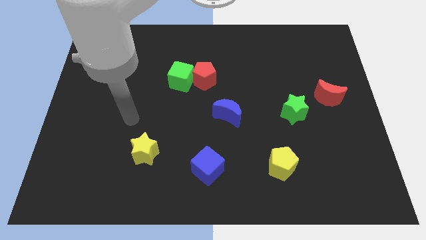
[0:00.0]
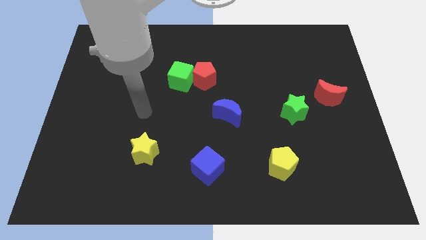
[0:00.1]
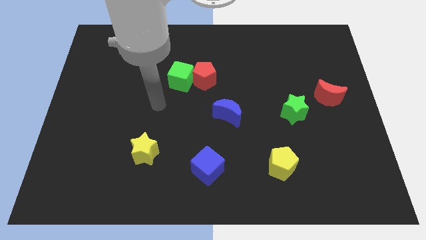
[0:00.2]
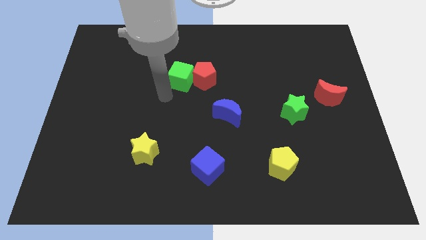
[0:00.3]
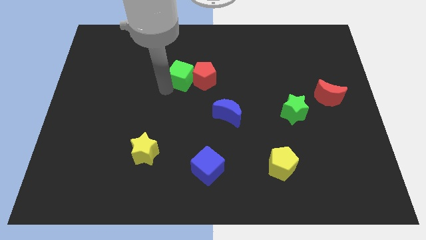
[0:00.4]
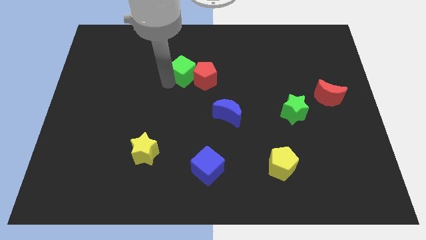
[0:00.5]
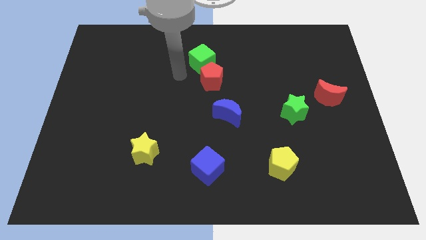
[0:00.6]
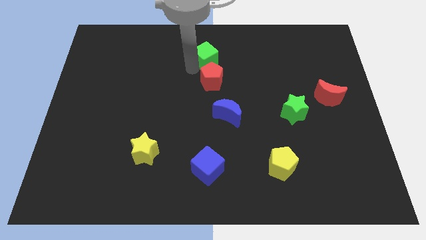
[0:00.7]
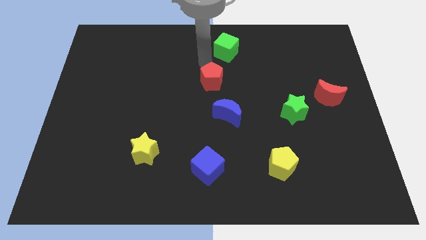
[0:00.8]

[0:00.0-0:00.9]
separate the red pentagon from the green cube

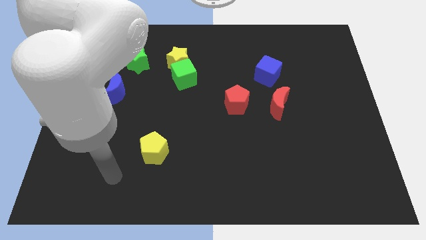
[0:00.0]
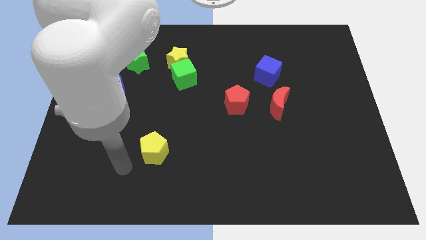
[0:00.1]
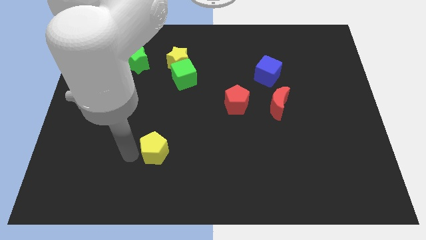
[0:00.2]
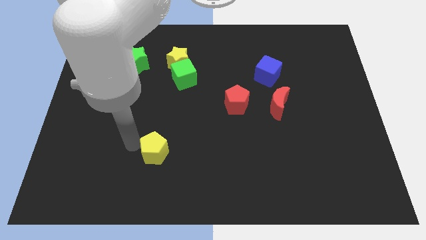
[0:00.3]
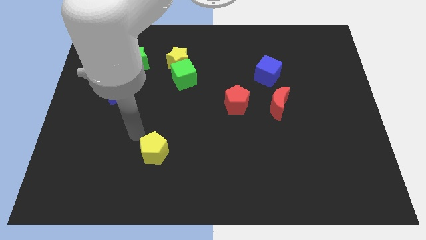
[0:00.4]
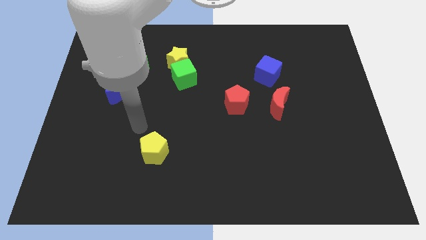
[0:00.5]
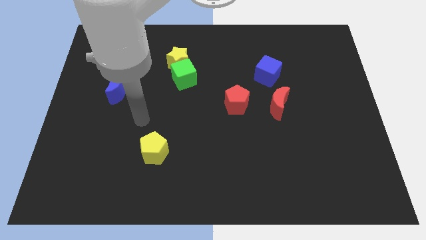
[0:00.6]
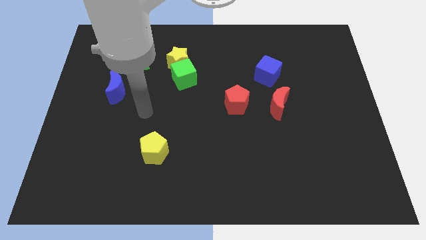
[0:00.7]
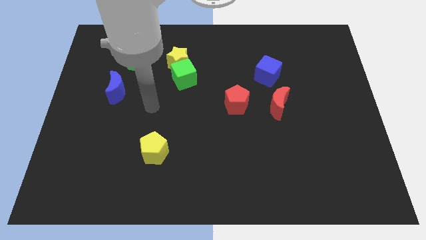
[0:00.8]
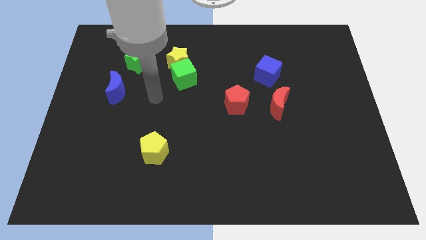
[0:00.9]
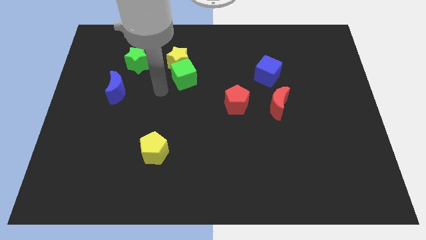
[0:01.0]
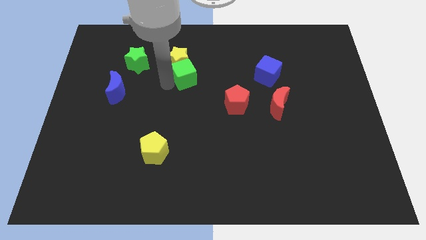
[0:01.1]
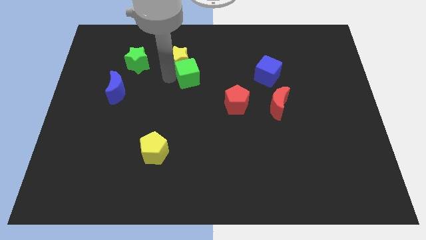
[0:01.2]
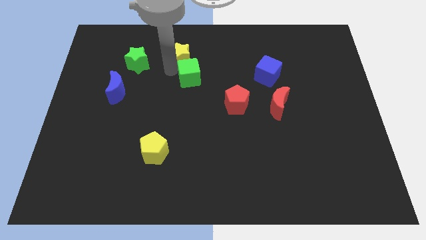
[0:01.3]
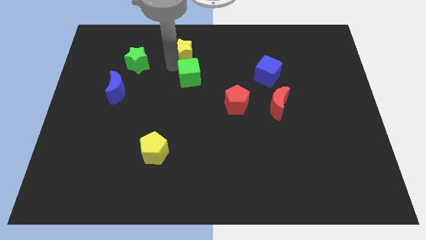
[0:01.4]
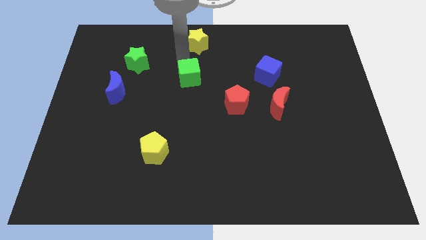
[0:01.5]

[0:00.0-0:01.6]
pull the green cube apart from the yellow star

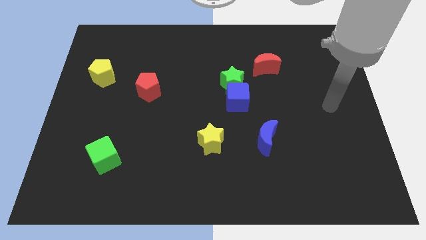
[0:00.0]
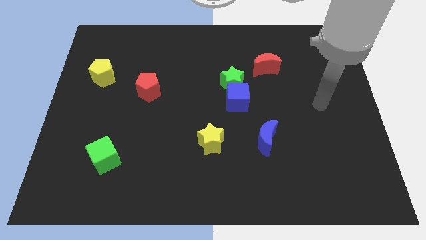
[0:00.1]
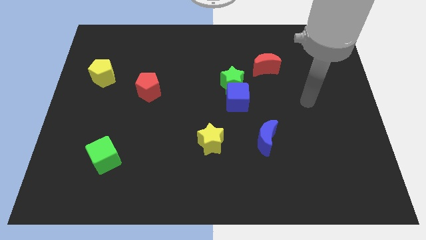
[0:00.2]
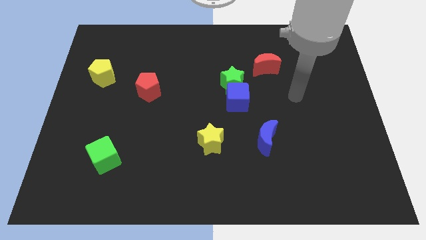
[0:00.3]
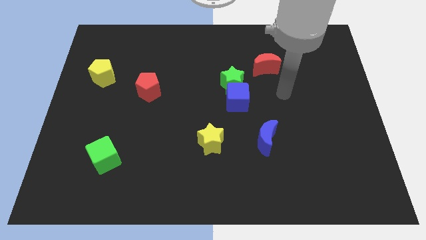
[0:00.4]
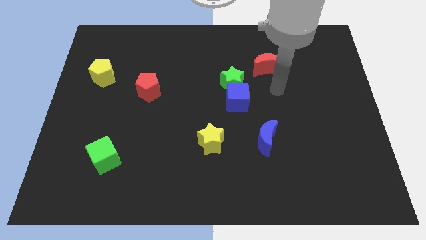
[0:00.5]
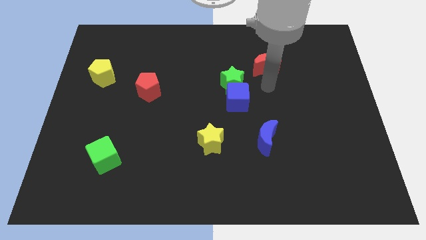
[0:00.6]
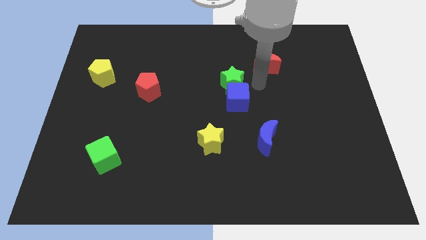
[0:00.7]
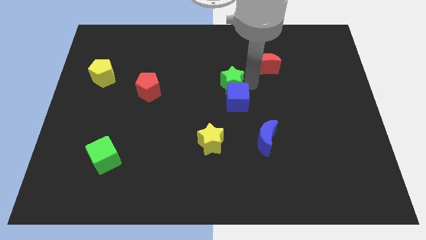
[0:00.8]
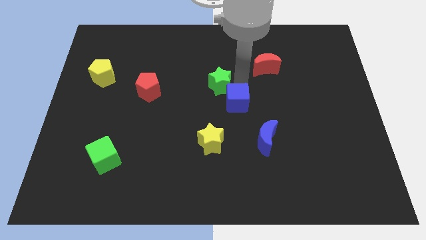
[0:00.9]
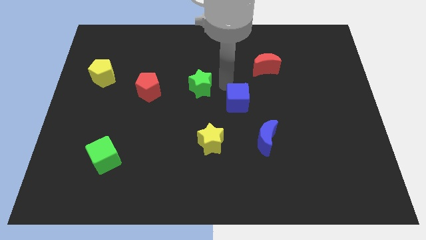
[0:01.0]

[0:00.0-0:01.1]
pull the blue cube apart from the green star

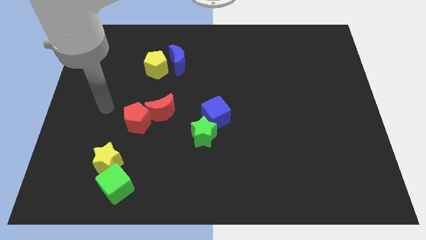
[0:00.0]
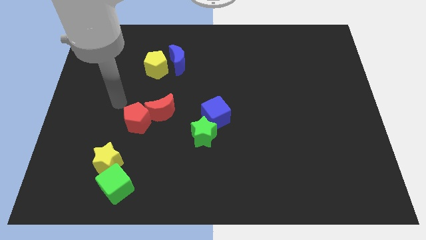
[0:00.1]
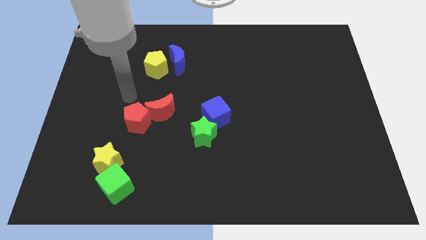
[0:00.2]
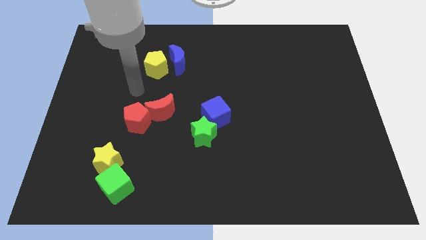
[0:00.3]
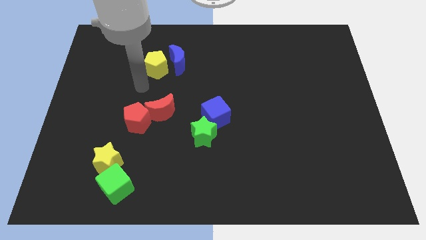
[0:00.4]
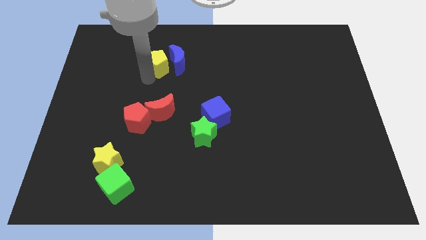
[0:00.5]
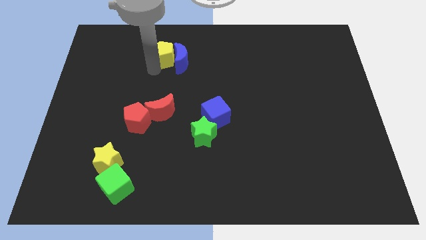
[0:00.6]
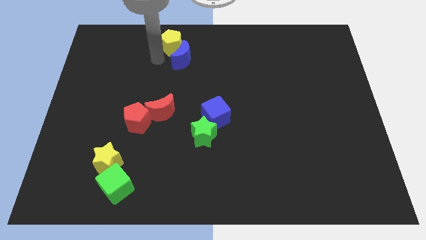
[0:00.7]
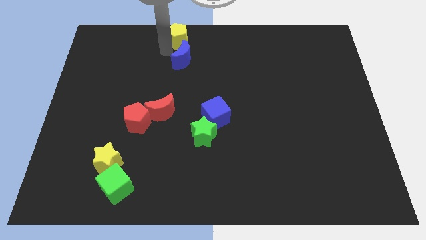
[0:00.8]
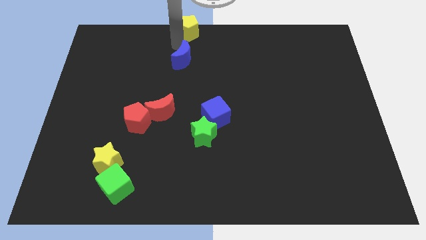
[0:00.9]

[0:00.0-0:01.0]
move the blue moon away from the yellow pentagon

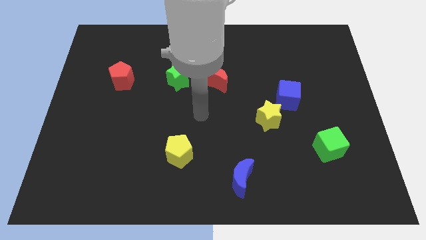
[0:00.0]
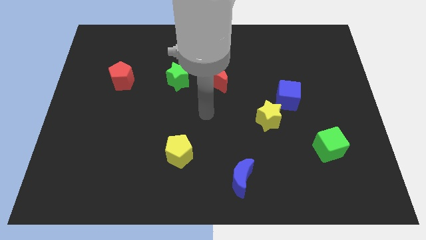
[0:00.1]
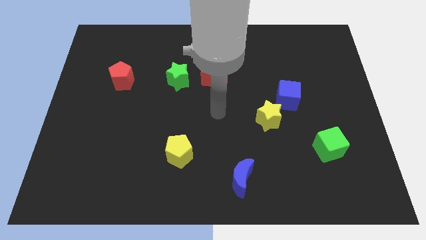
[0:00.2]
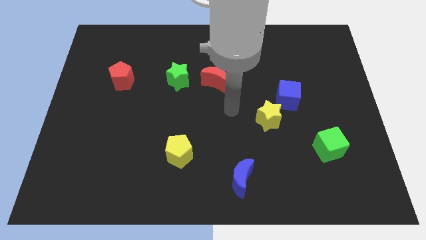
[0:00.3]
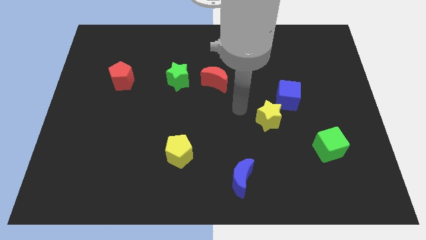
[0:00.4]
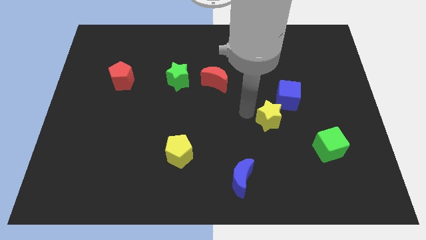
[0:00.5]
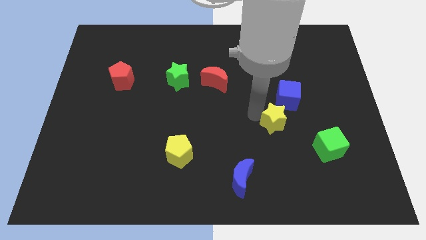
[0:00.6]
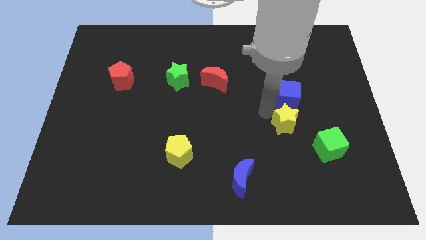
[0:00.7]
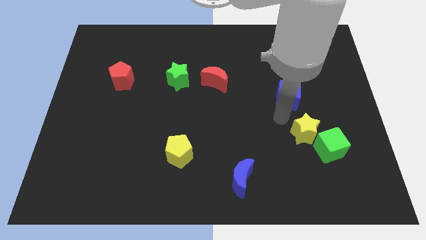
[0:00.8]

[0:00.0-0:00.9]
move the blue cube away from the yellow star

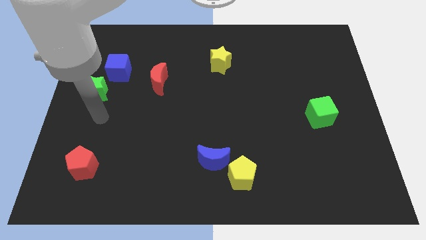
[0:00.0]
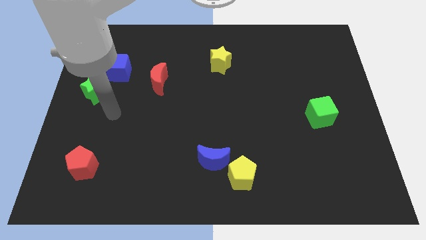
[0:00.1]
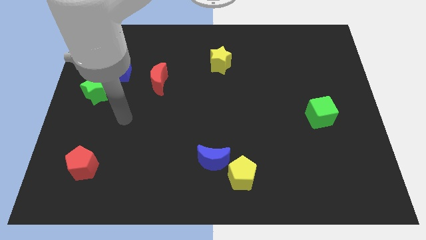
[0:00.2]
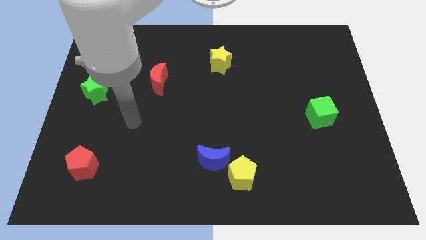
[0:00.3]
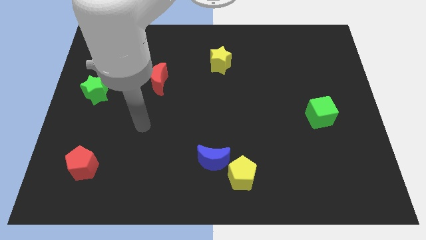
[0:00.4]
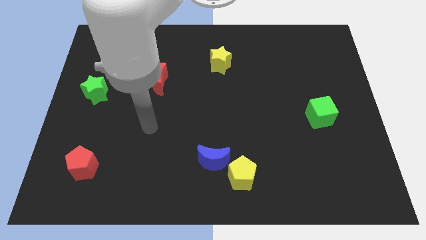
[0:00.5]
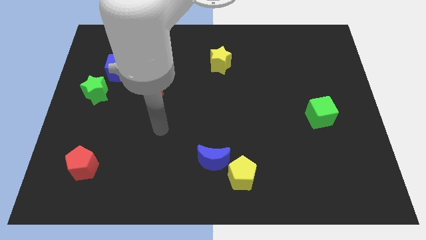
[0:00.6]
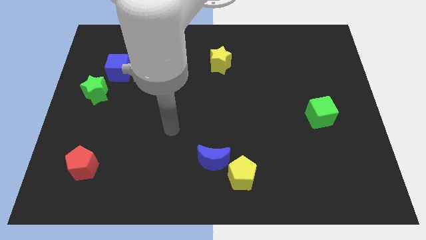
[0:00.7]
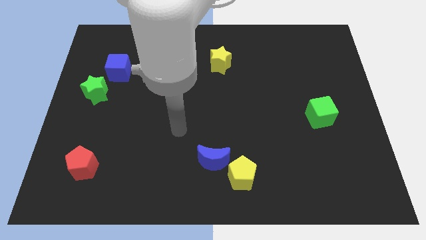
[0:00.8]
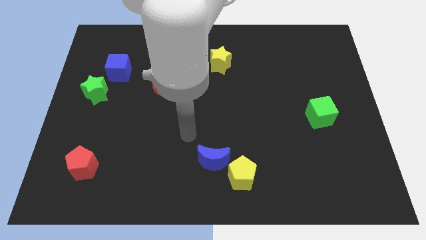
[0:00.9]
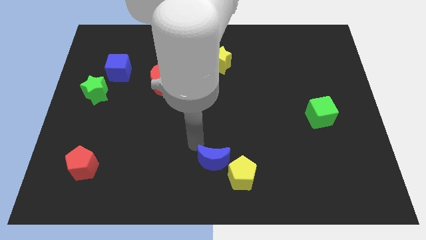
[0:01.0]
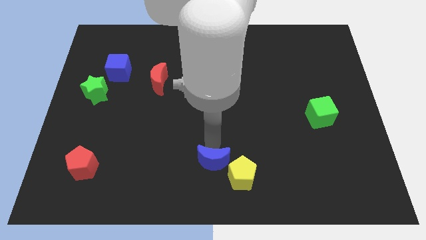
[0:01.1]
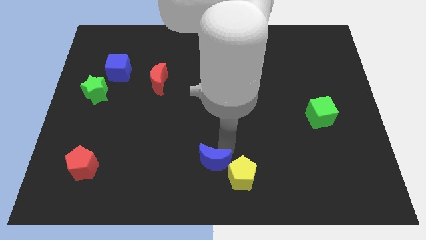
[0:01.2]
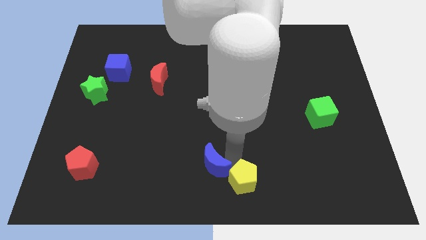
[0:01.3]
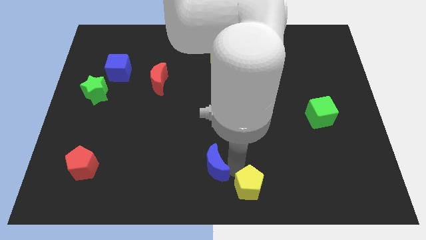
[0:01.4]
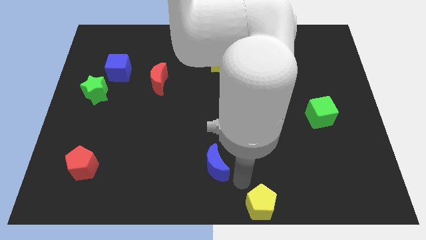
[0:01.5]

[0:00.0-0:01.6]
pull the blue moon apart from the yellow pentagon

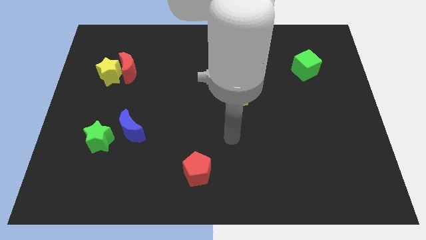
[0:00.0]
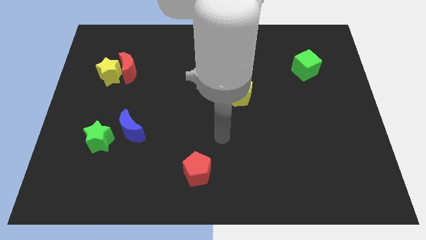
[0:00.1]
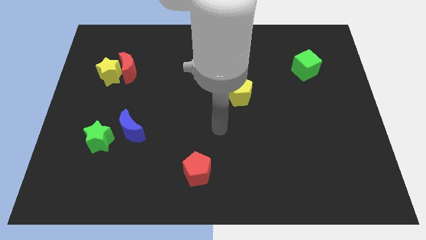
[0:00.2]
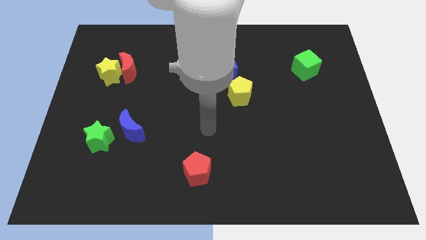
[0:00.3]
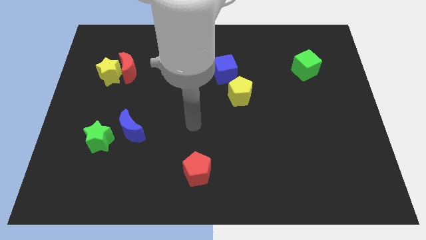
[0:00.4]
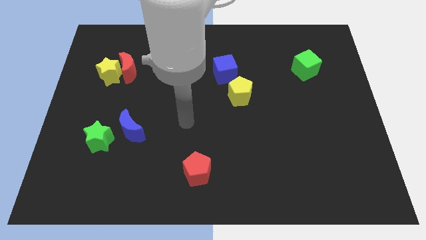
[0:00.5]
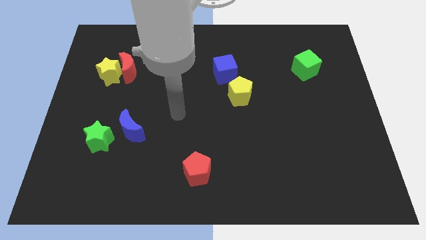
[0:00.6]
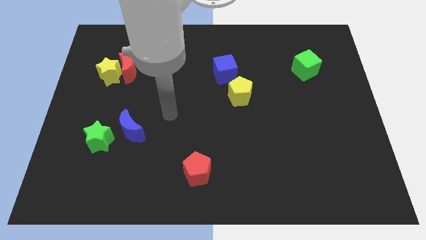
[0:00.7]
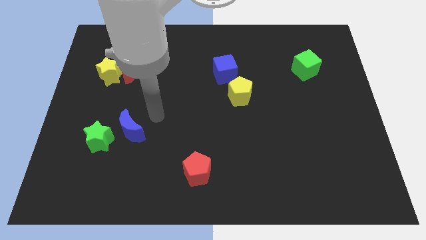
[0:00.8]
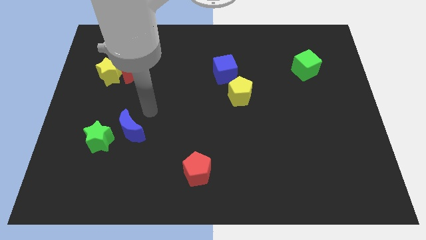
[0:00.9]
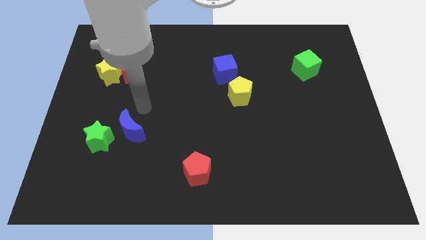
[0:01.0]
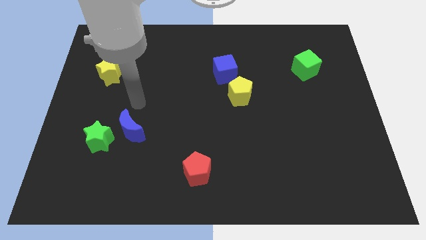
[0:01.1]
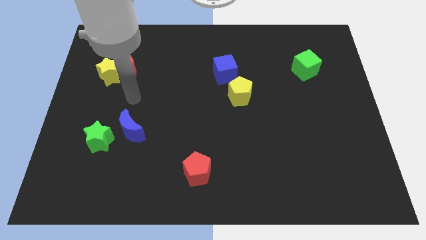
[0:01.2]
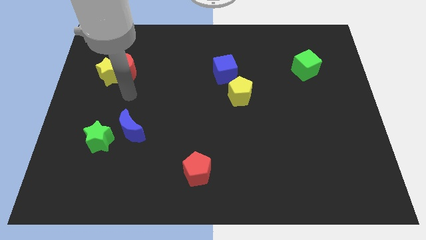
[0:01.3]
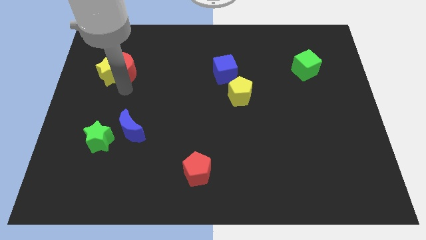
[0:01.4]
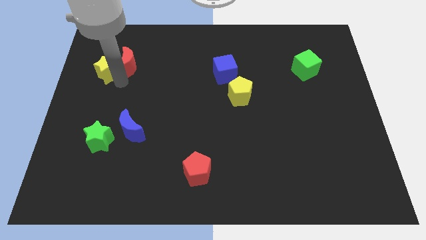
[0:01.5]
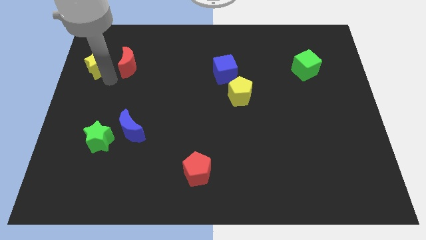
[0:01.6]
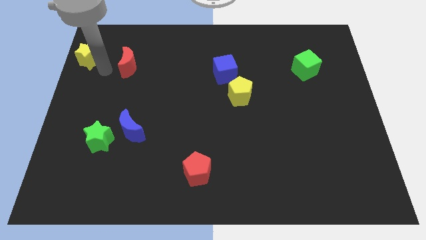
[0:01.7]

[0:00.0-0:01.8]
separate the red moon from the yellow star

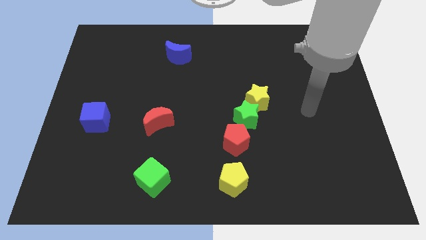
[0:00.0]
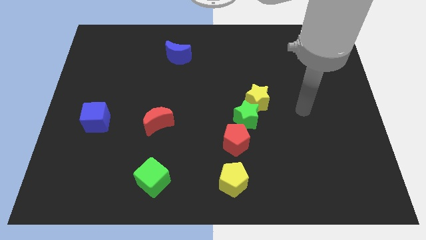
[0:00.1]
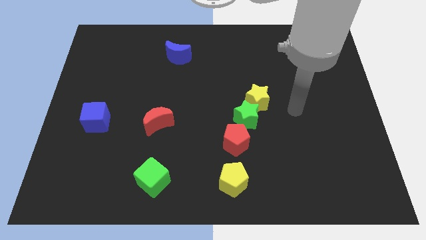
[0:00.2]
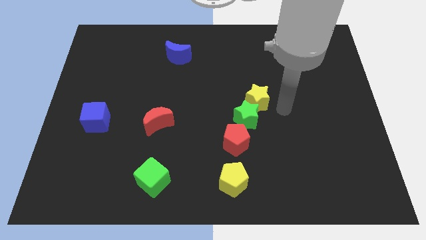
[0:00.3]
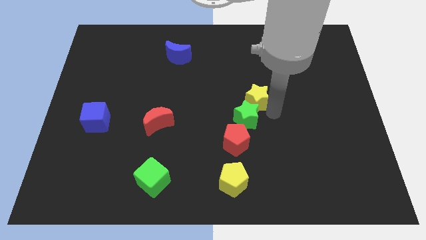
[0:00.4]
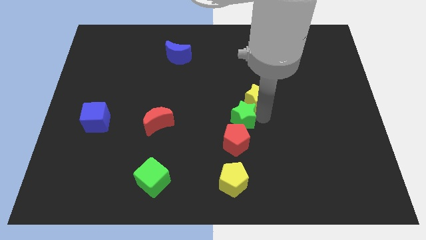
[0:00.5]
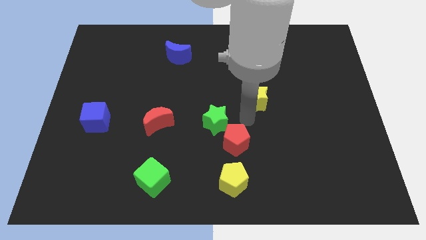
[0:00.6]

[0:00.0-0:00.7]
pull the yellow star apart from the green star
